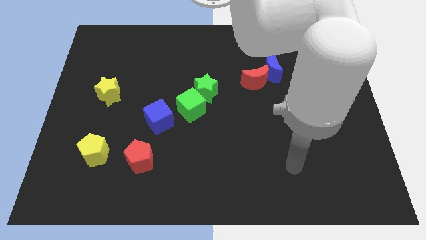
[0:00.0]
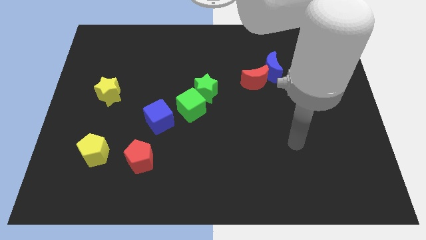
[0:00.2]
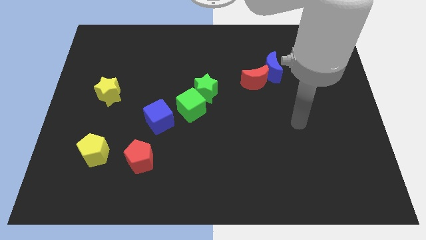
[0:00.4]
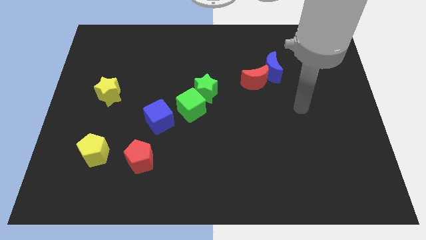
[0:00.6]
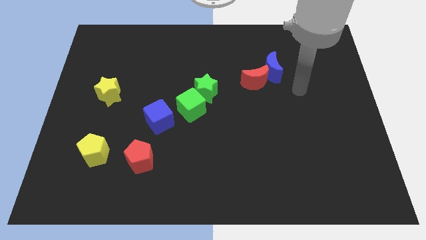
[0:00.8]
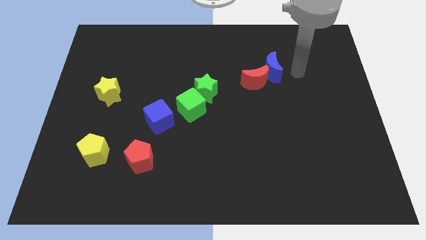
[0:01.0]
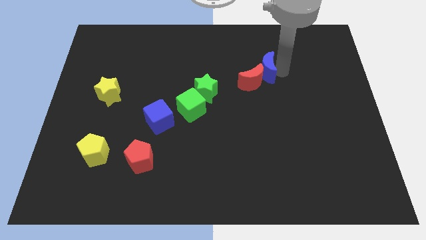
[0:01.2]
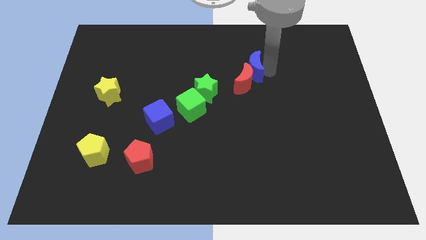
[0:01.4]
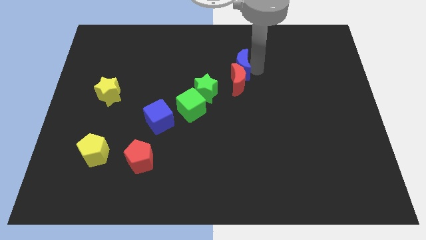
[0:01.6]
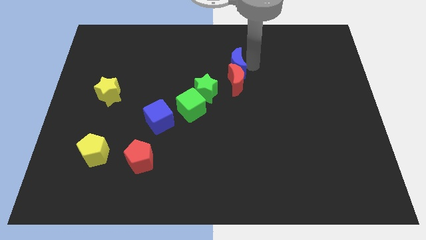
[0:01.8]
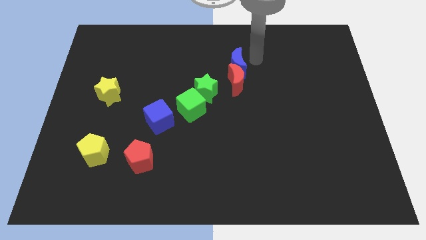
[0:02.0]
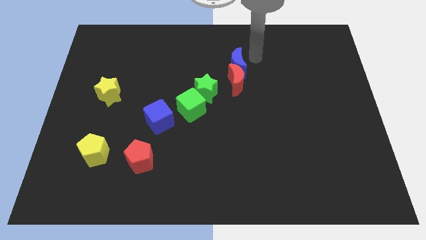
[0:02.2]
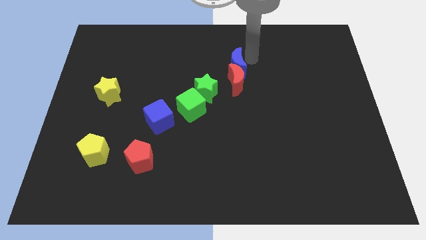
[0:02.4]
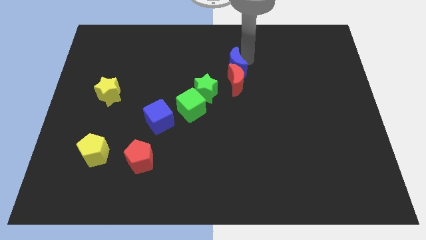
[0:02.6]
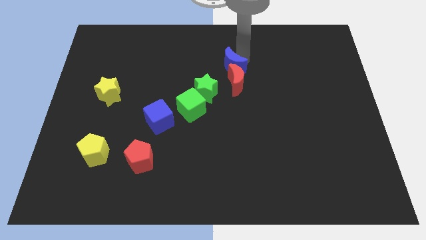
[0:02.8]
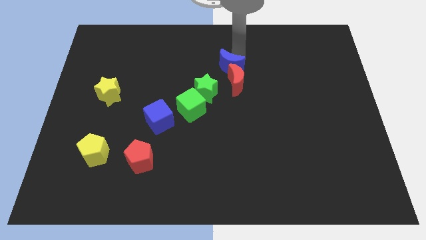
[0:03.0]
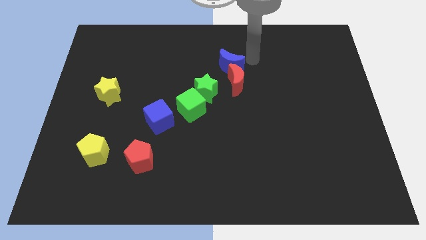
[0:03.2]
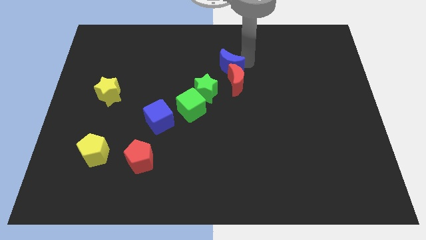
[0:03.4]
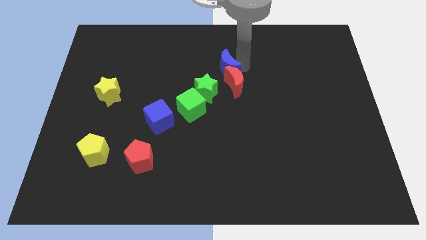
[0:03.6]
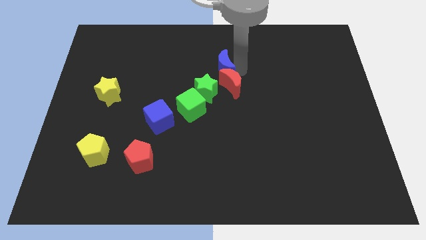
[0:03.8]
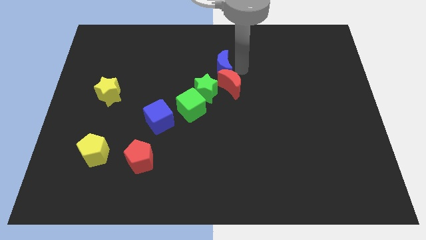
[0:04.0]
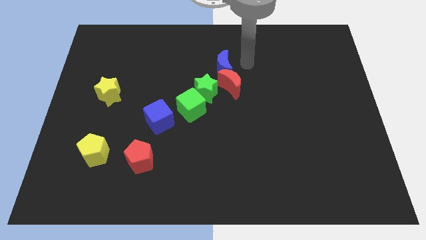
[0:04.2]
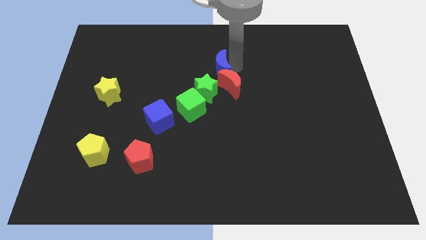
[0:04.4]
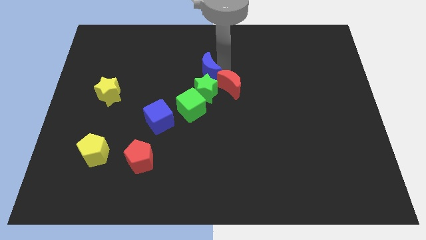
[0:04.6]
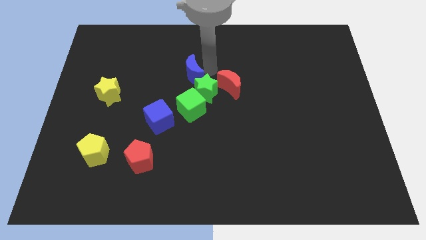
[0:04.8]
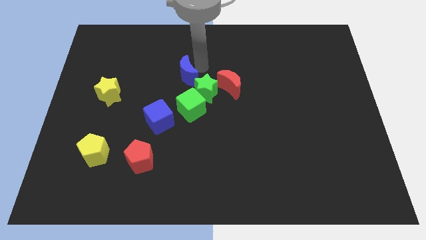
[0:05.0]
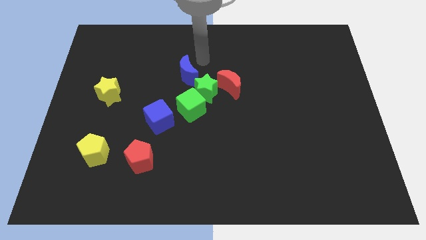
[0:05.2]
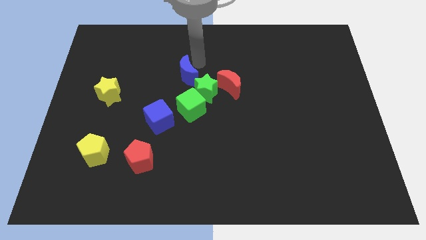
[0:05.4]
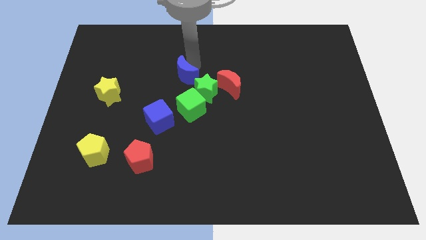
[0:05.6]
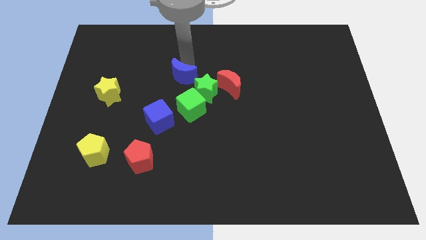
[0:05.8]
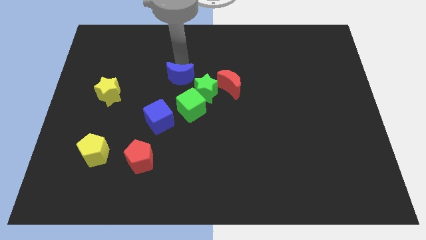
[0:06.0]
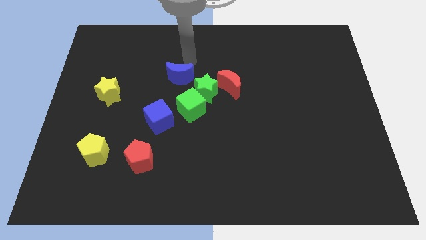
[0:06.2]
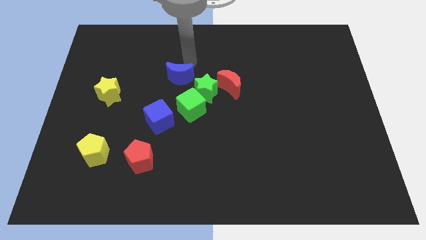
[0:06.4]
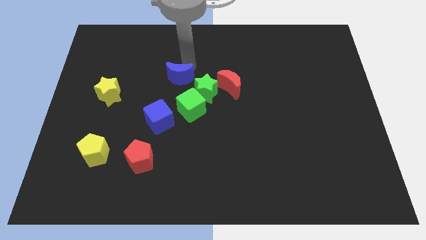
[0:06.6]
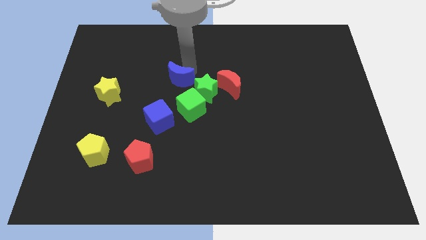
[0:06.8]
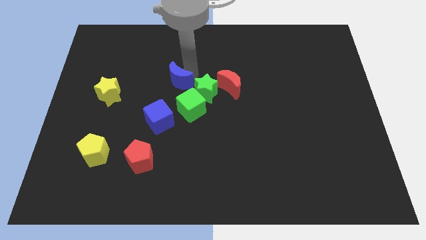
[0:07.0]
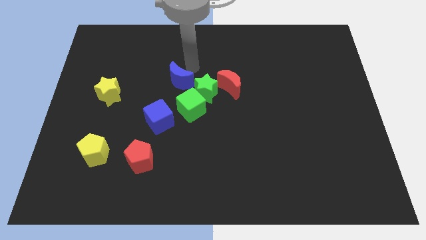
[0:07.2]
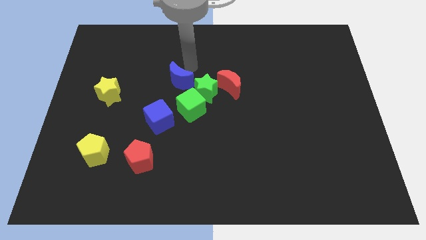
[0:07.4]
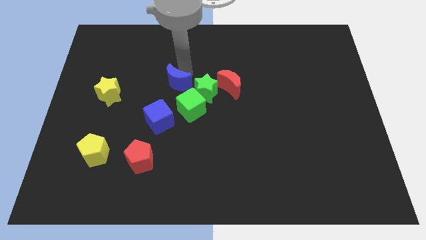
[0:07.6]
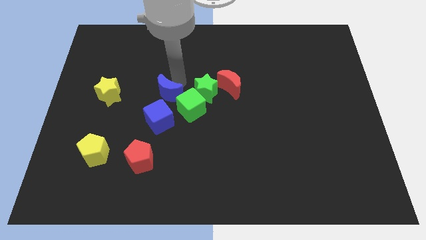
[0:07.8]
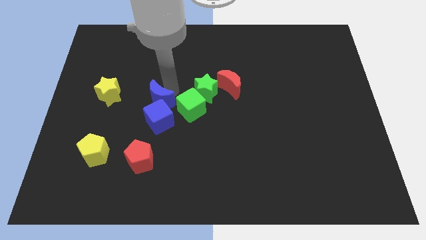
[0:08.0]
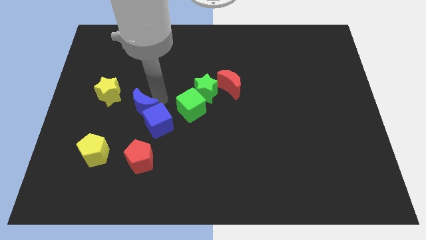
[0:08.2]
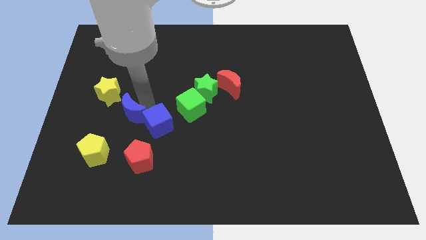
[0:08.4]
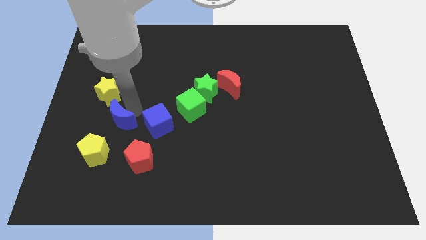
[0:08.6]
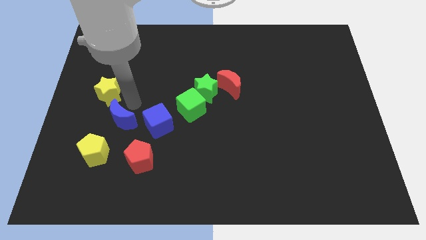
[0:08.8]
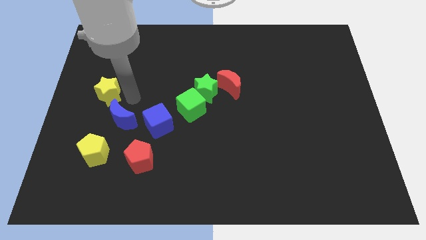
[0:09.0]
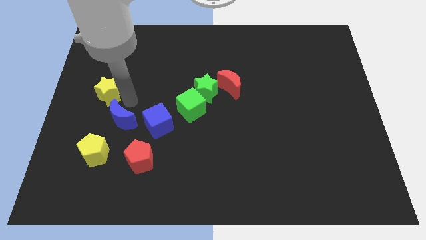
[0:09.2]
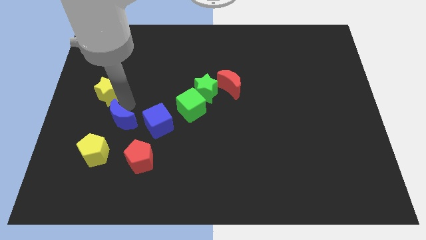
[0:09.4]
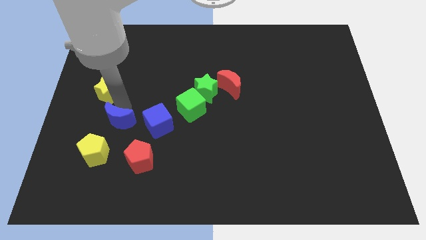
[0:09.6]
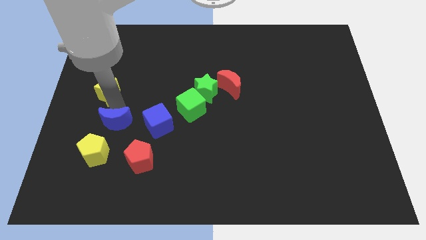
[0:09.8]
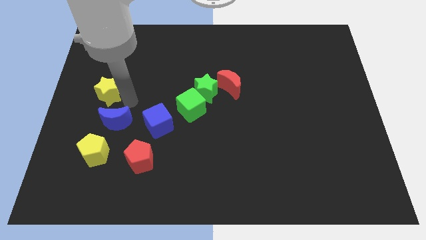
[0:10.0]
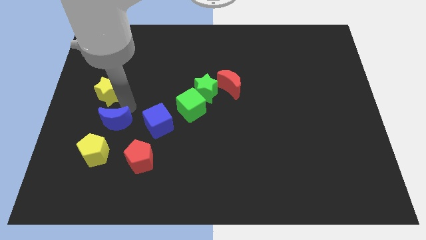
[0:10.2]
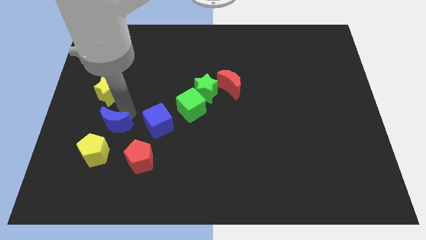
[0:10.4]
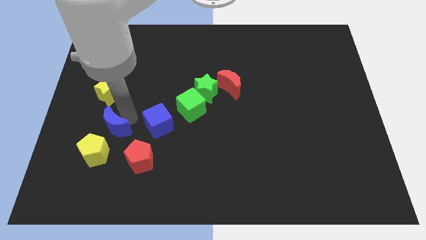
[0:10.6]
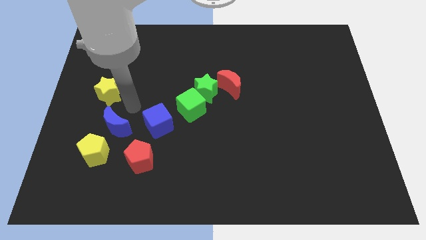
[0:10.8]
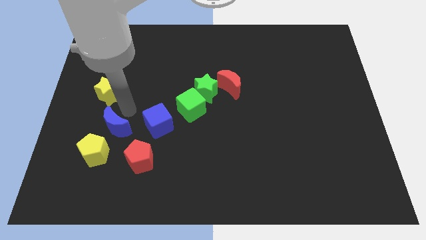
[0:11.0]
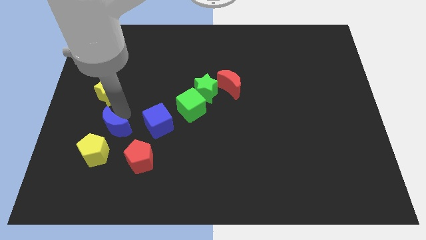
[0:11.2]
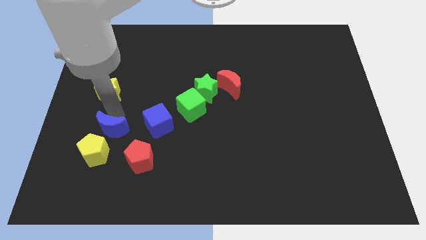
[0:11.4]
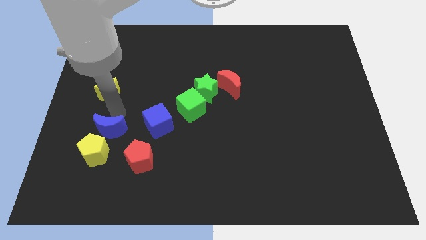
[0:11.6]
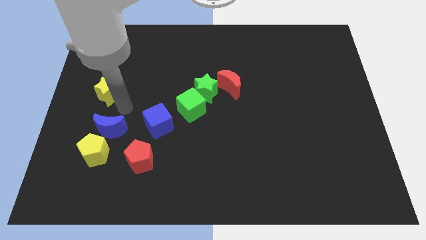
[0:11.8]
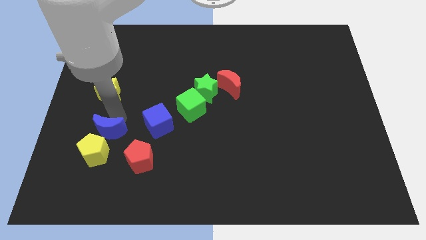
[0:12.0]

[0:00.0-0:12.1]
slide the blue moon next to the yellow pentagon

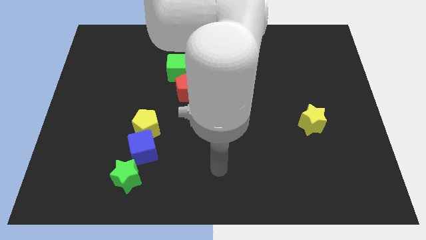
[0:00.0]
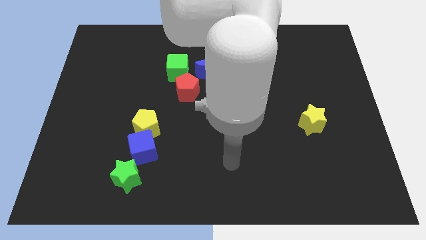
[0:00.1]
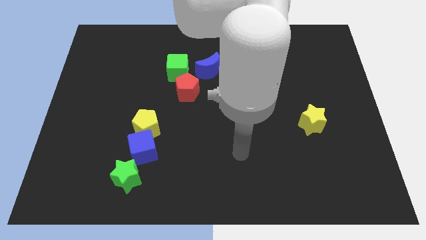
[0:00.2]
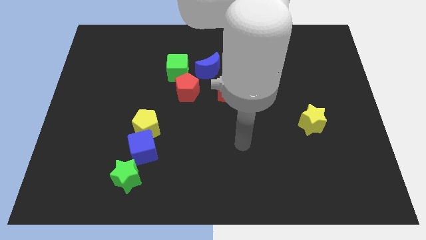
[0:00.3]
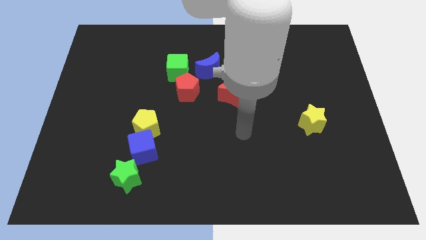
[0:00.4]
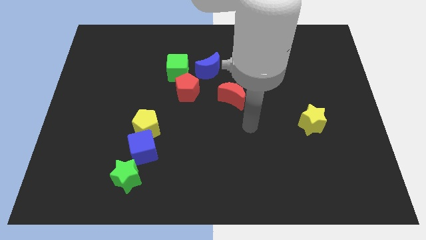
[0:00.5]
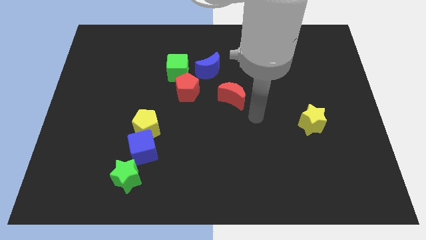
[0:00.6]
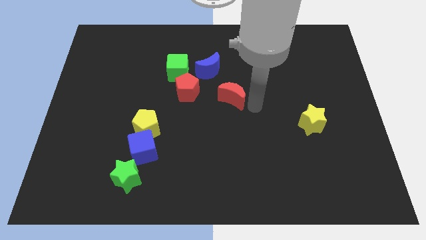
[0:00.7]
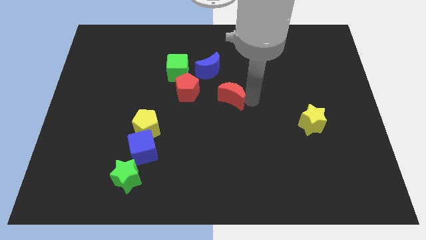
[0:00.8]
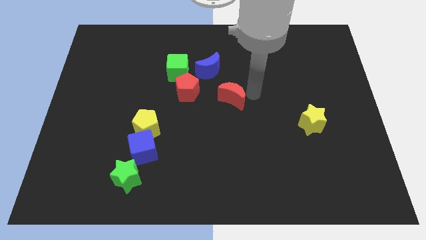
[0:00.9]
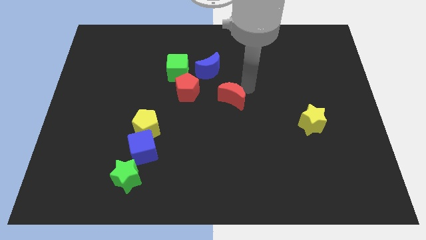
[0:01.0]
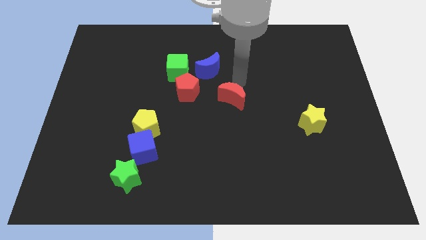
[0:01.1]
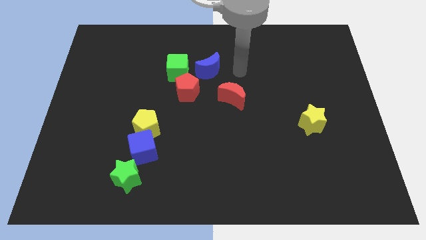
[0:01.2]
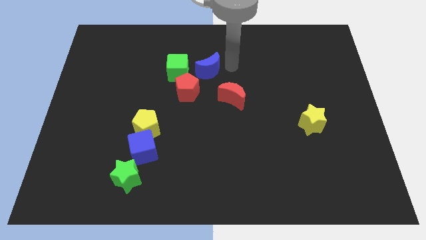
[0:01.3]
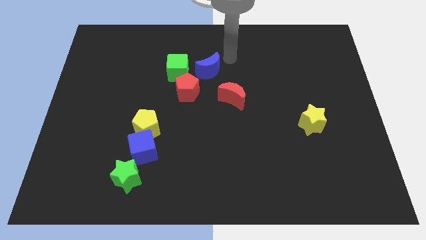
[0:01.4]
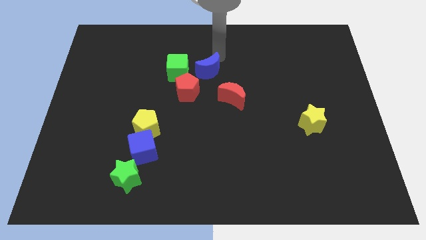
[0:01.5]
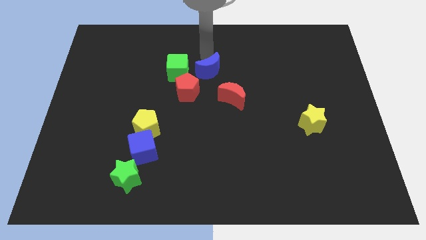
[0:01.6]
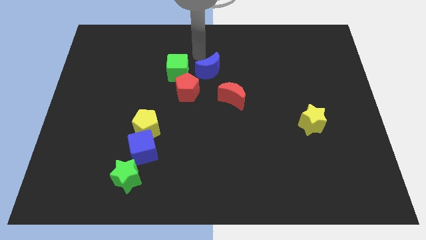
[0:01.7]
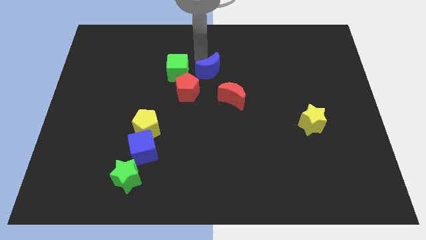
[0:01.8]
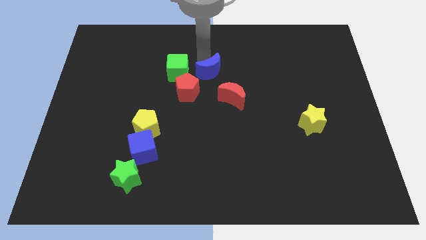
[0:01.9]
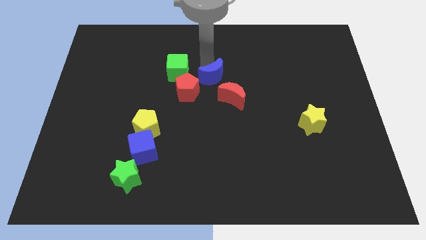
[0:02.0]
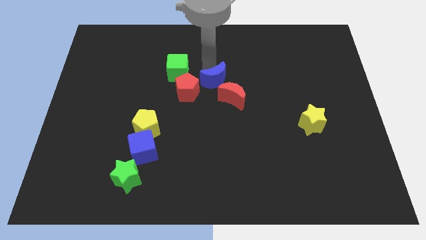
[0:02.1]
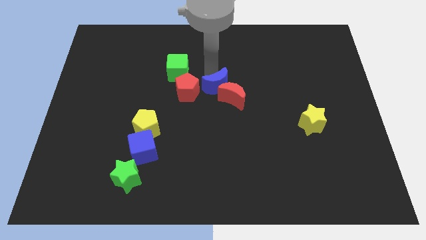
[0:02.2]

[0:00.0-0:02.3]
put the blue moon towards the red moon
